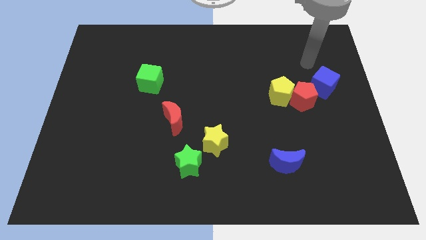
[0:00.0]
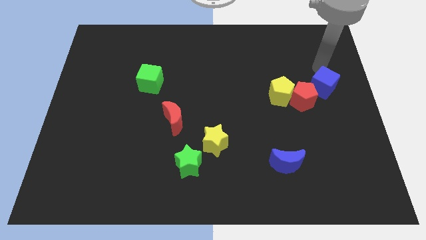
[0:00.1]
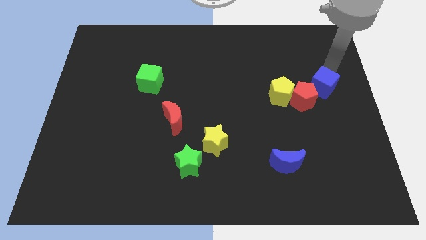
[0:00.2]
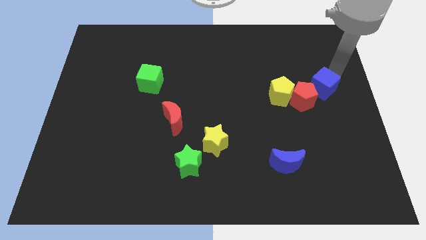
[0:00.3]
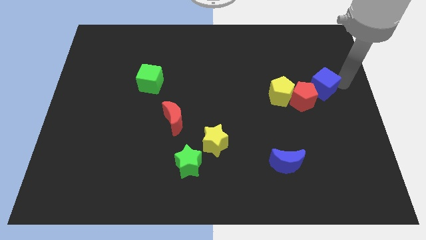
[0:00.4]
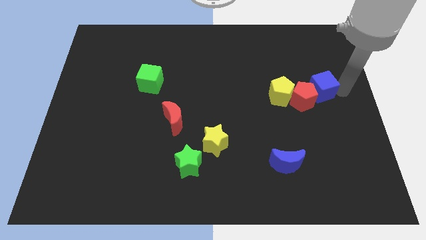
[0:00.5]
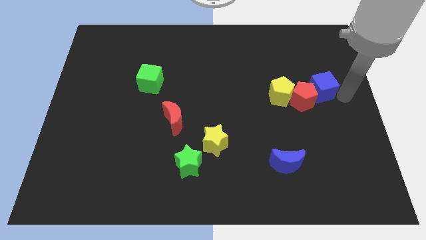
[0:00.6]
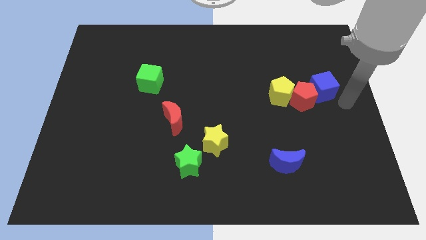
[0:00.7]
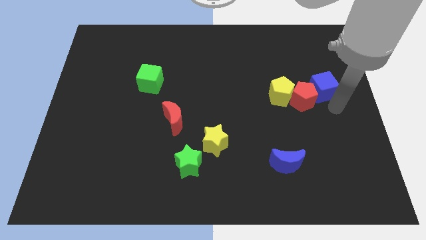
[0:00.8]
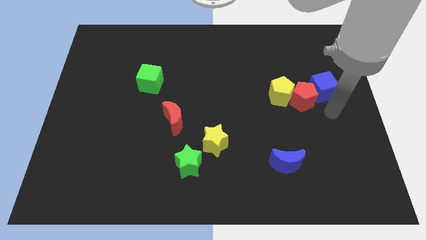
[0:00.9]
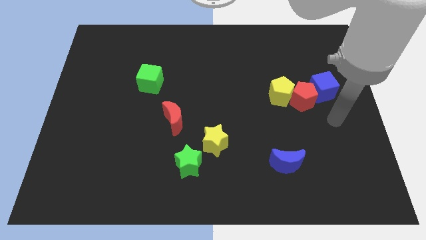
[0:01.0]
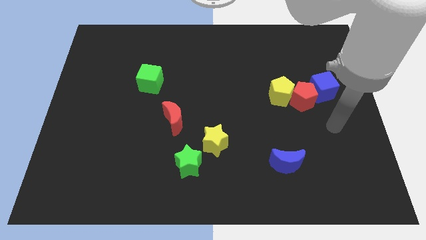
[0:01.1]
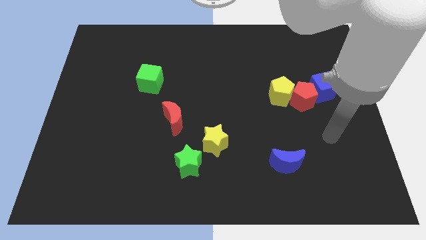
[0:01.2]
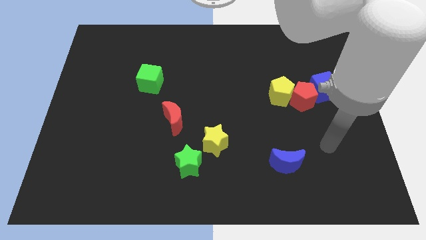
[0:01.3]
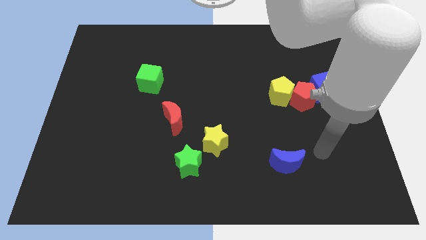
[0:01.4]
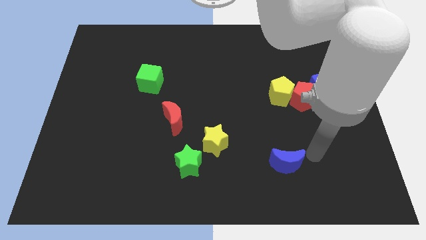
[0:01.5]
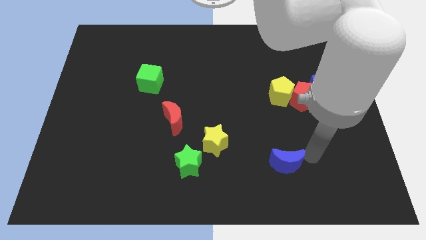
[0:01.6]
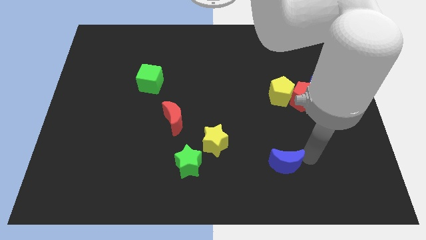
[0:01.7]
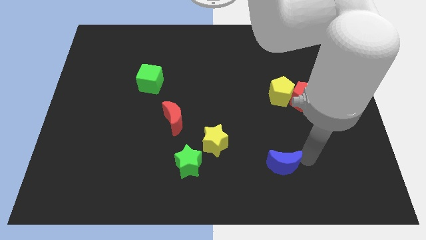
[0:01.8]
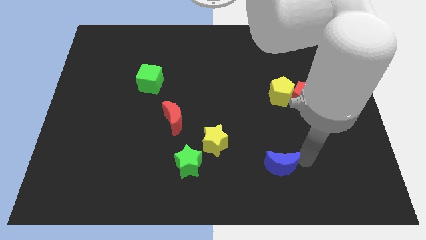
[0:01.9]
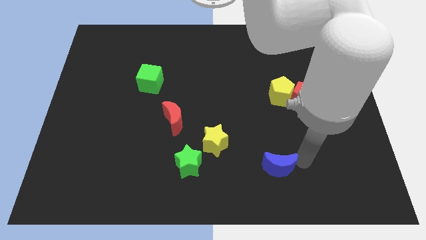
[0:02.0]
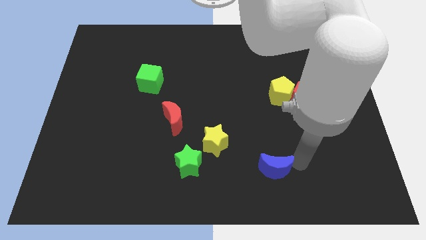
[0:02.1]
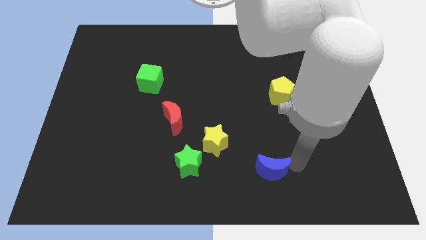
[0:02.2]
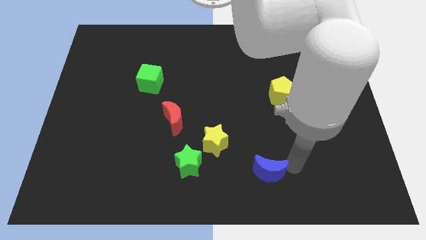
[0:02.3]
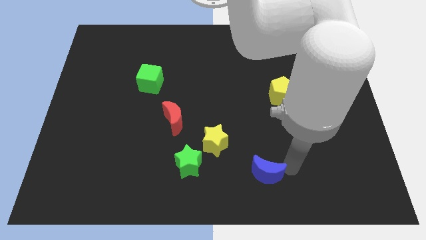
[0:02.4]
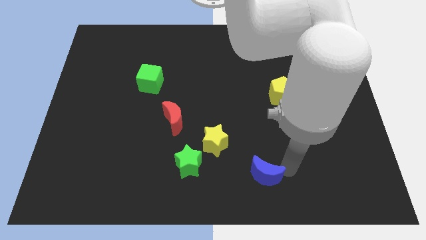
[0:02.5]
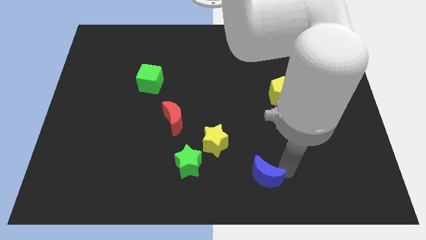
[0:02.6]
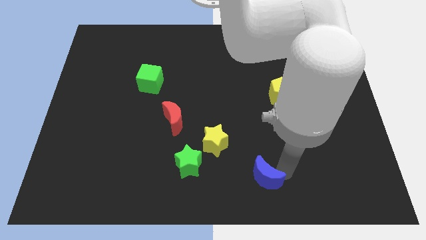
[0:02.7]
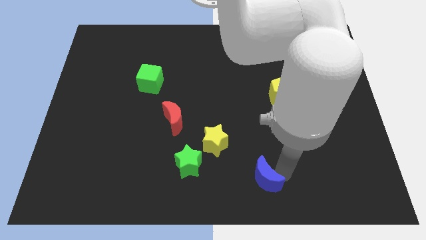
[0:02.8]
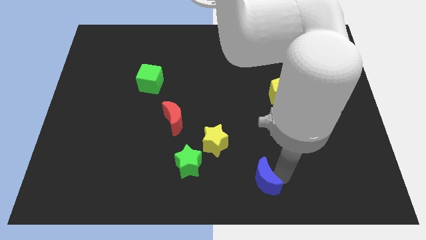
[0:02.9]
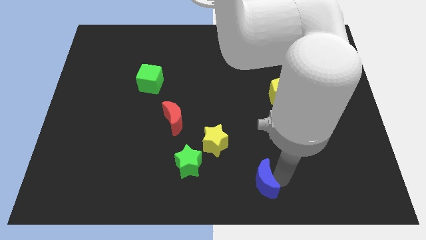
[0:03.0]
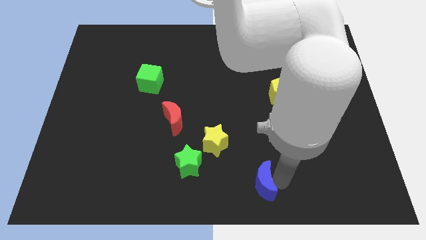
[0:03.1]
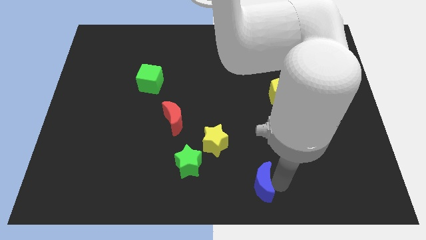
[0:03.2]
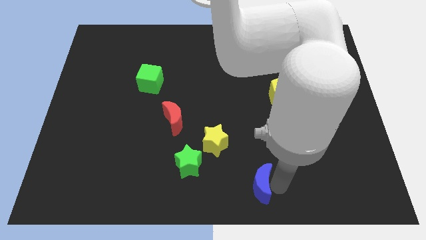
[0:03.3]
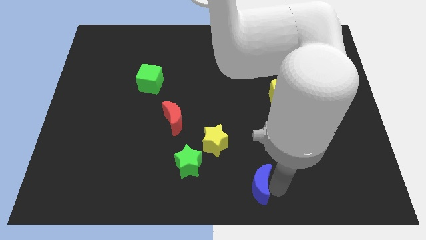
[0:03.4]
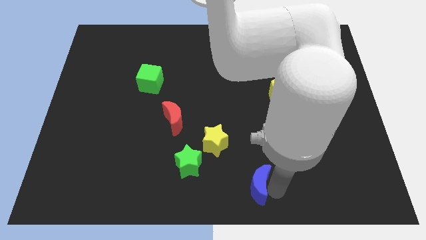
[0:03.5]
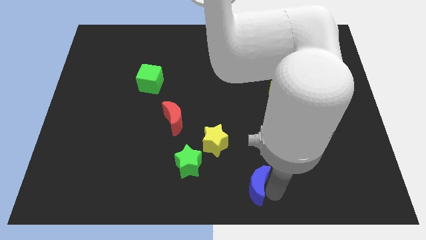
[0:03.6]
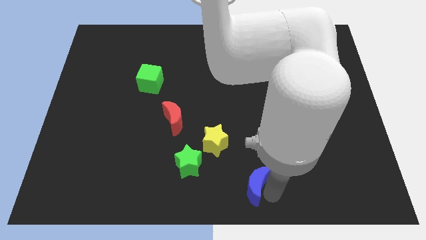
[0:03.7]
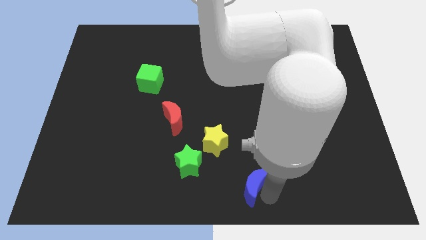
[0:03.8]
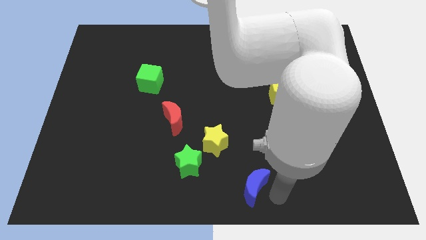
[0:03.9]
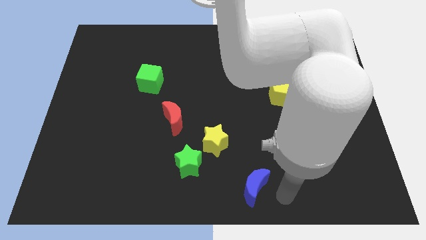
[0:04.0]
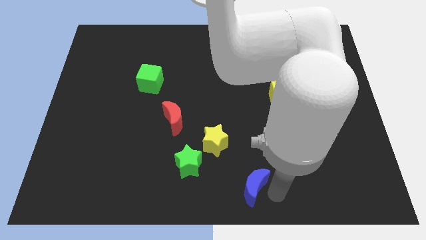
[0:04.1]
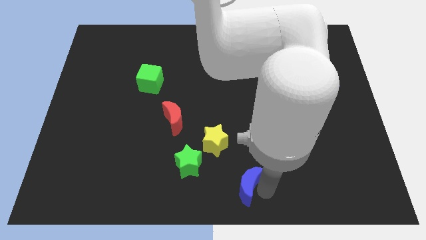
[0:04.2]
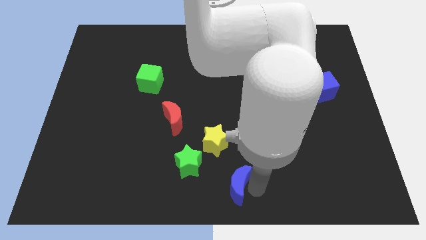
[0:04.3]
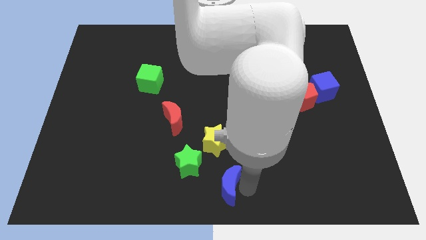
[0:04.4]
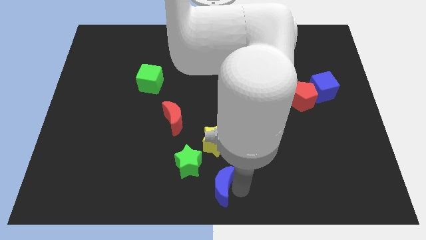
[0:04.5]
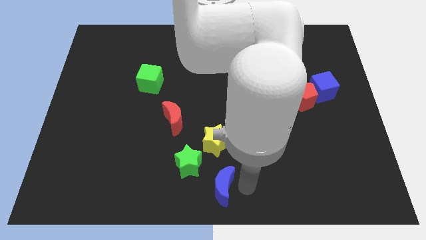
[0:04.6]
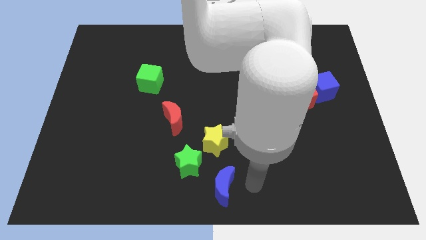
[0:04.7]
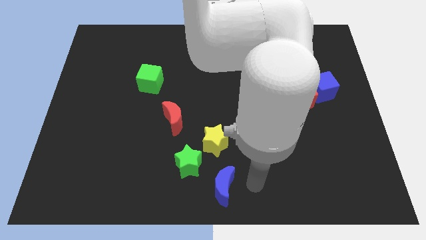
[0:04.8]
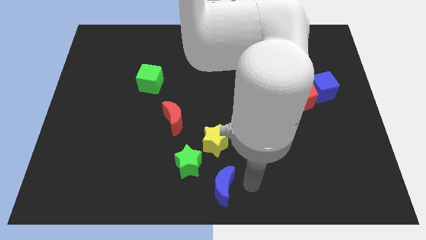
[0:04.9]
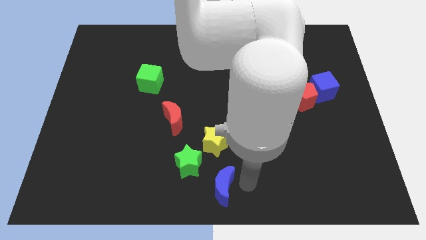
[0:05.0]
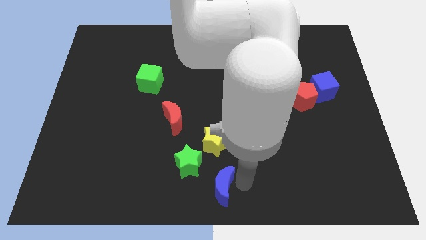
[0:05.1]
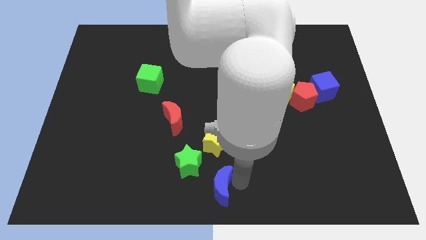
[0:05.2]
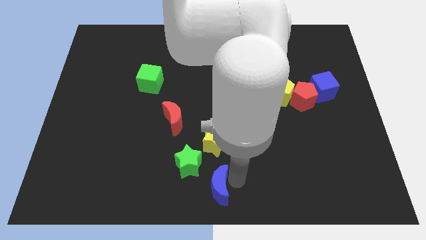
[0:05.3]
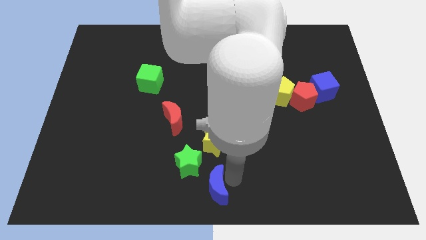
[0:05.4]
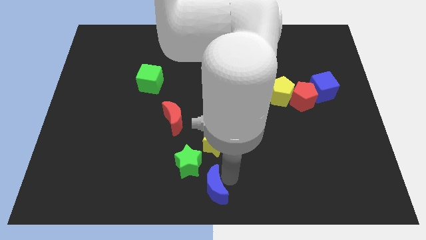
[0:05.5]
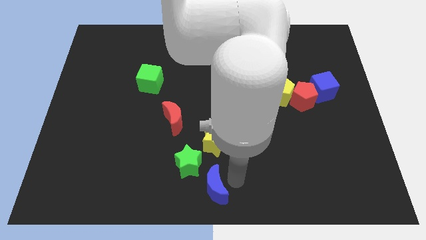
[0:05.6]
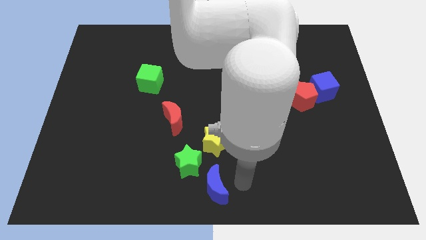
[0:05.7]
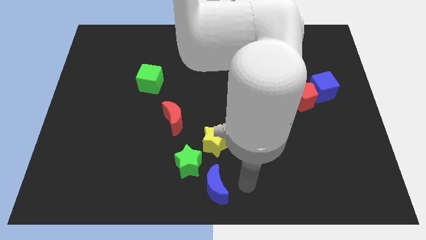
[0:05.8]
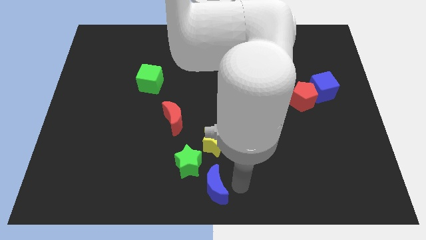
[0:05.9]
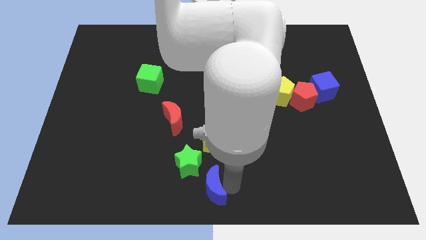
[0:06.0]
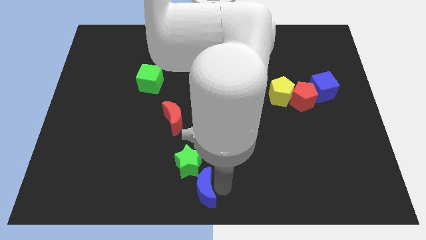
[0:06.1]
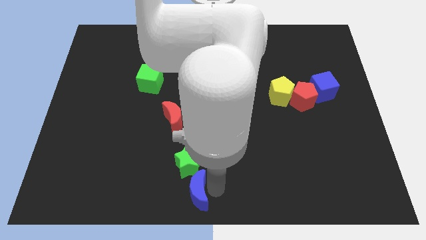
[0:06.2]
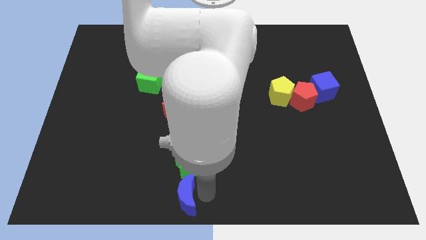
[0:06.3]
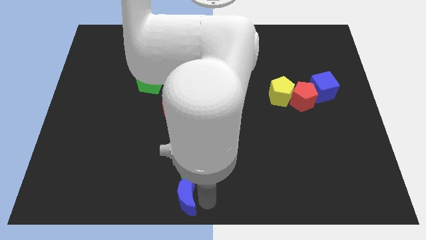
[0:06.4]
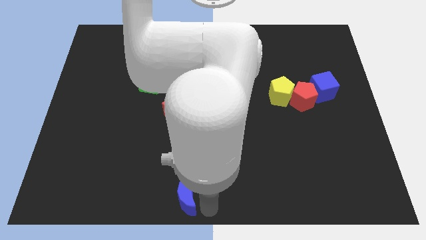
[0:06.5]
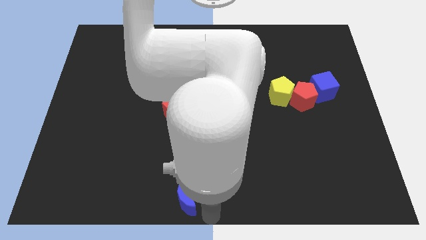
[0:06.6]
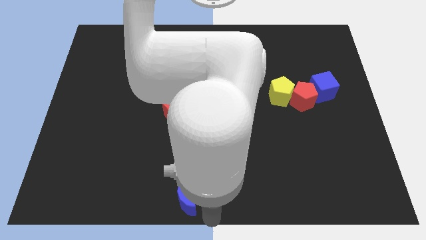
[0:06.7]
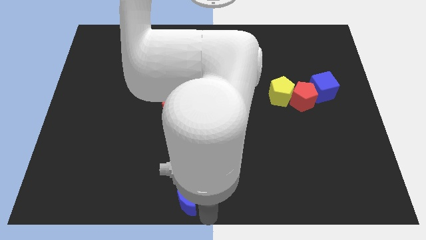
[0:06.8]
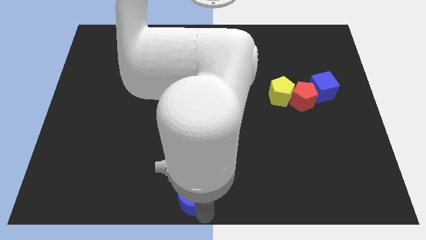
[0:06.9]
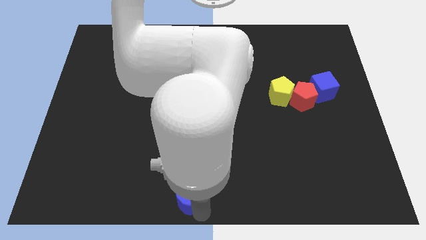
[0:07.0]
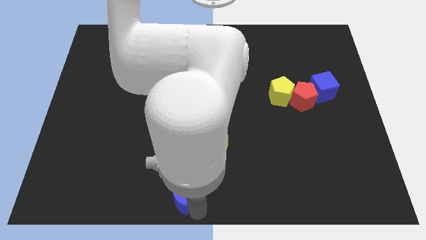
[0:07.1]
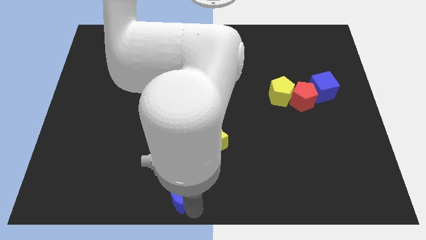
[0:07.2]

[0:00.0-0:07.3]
push the blue moon left

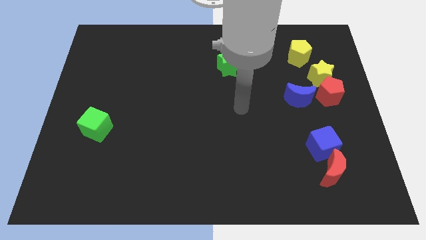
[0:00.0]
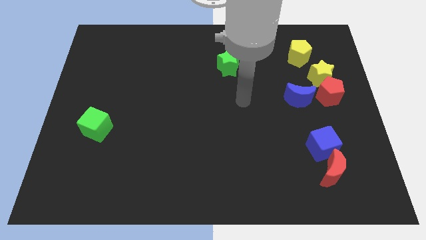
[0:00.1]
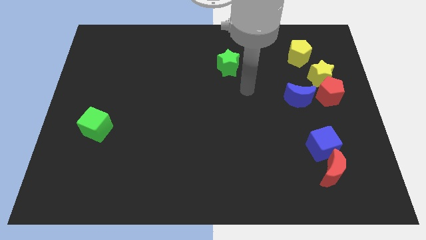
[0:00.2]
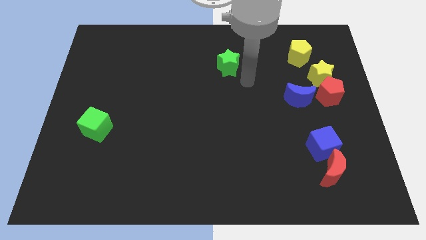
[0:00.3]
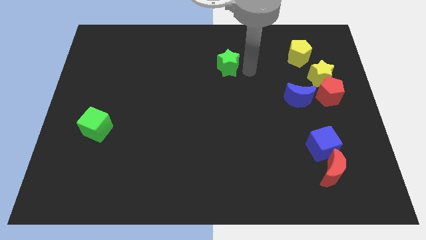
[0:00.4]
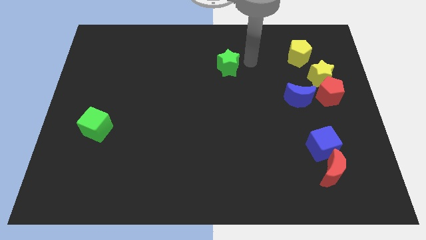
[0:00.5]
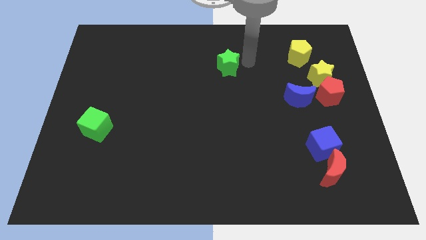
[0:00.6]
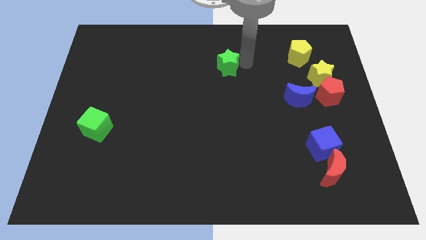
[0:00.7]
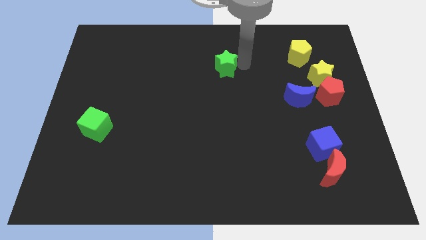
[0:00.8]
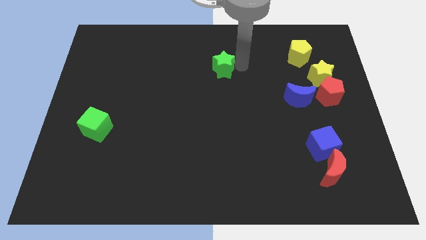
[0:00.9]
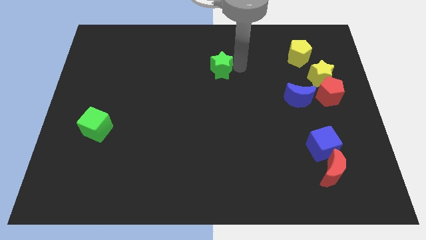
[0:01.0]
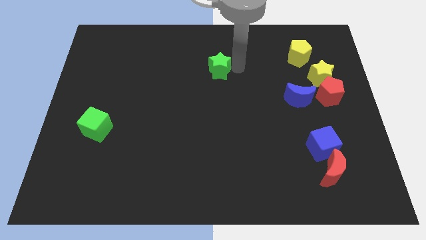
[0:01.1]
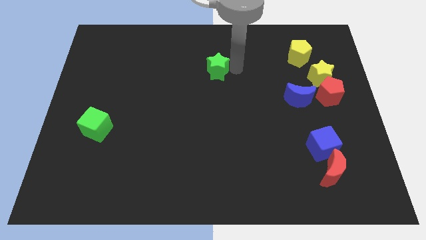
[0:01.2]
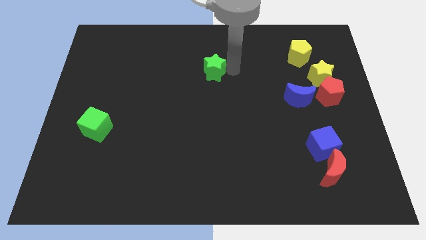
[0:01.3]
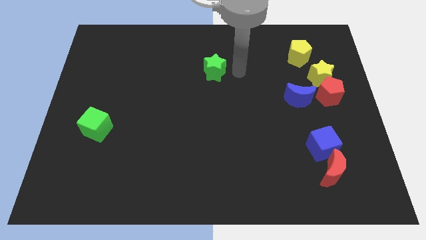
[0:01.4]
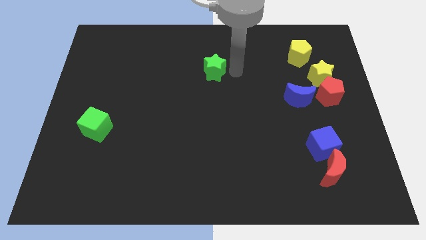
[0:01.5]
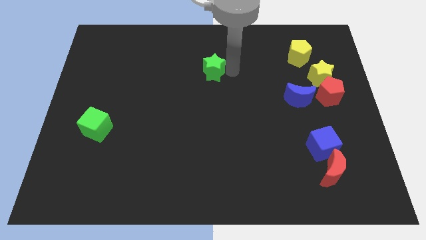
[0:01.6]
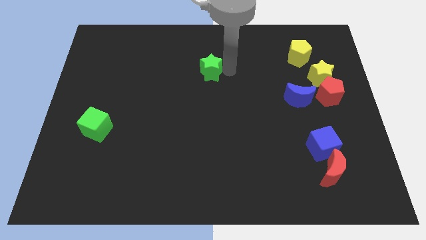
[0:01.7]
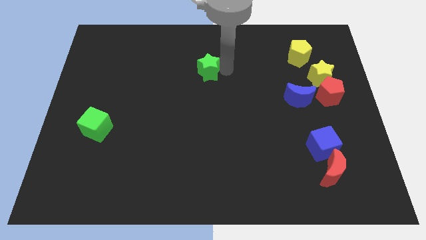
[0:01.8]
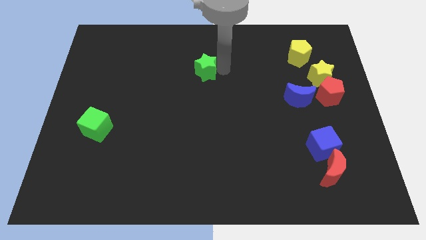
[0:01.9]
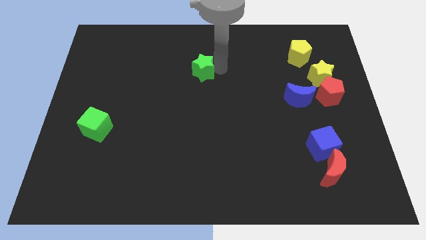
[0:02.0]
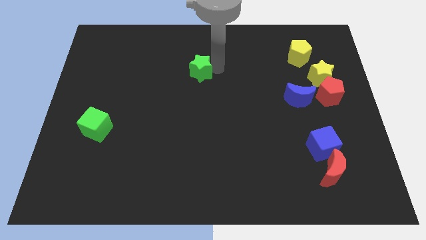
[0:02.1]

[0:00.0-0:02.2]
push the green star left a little
